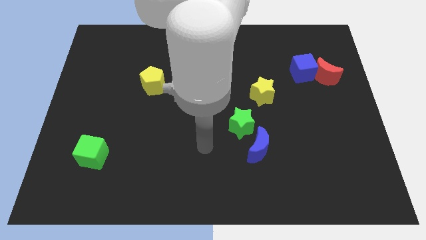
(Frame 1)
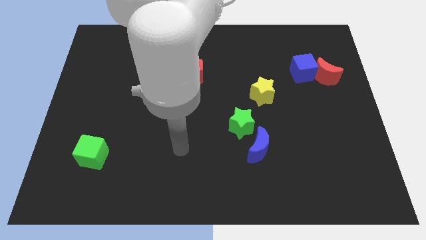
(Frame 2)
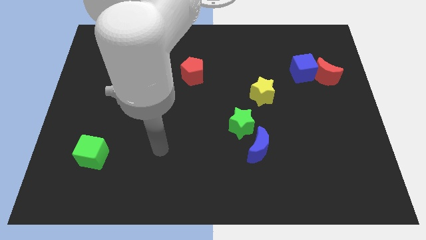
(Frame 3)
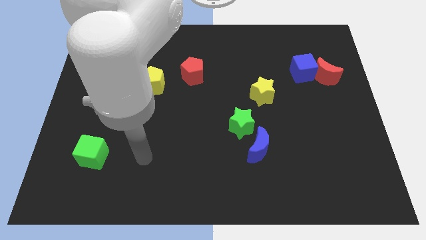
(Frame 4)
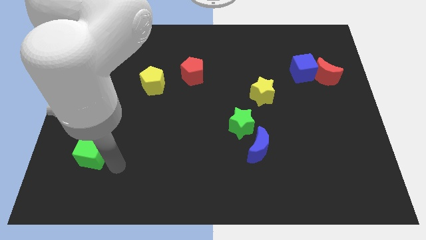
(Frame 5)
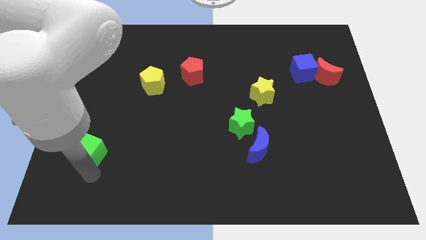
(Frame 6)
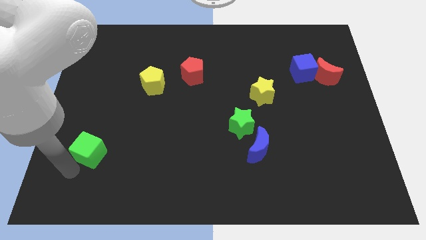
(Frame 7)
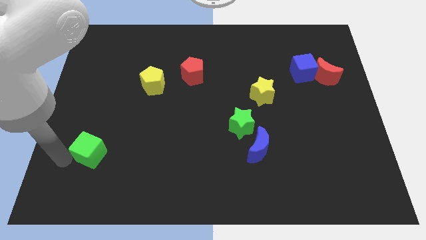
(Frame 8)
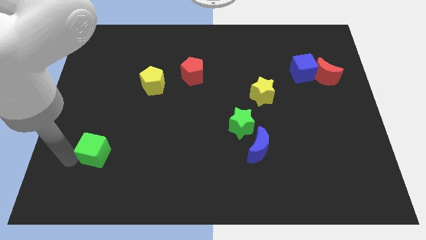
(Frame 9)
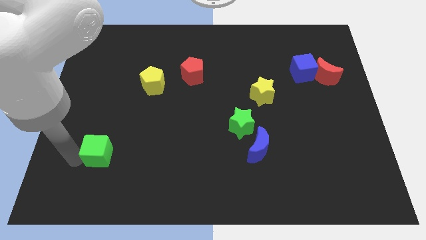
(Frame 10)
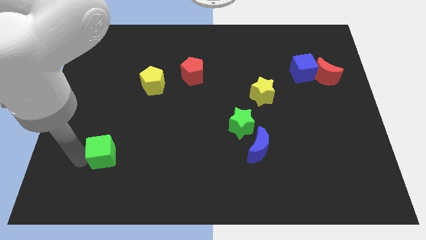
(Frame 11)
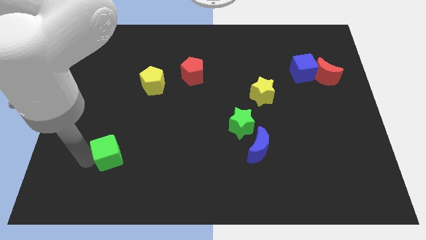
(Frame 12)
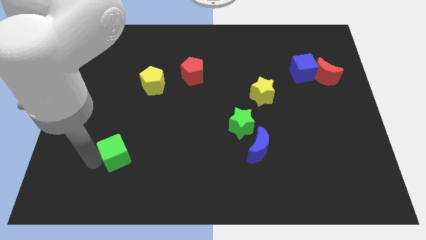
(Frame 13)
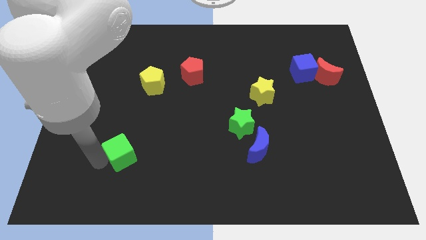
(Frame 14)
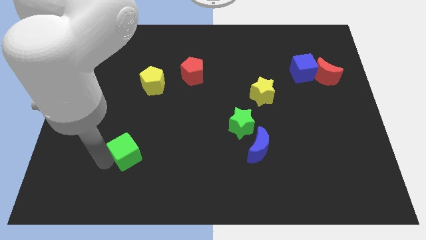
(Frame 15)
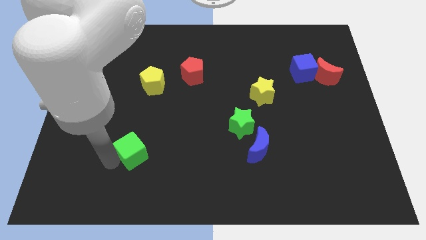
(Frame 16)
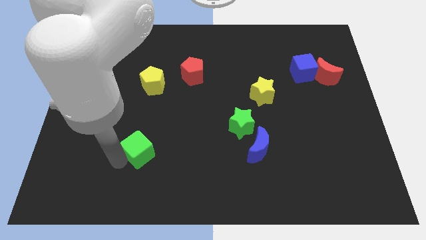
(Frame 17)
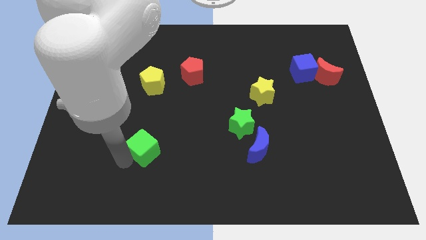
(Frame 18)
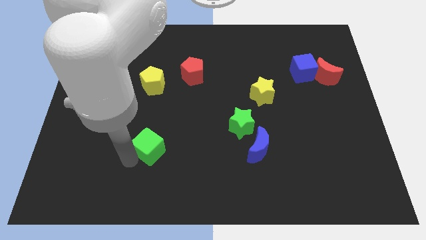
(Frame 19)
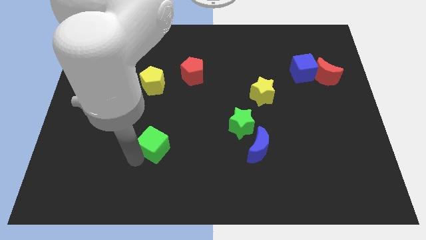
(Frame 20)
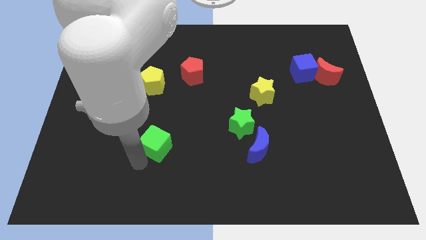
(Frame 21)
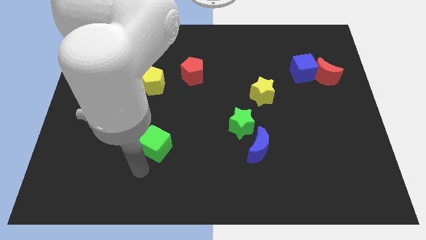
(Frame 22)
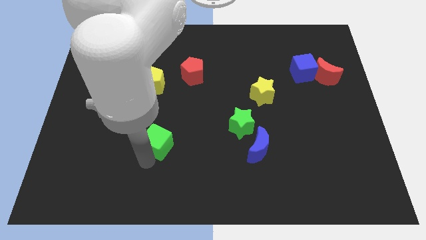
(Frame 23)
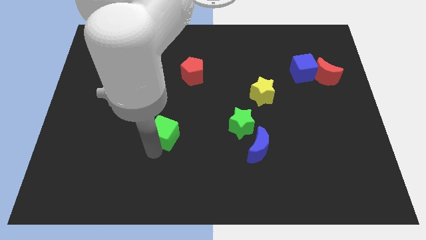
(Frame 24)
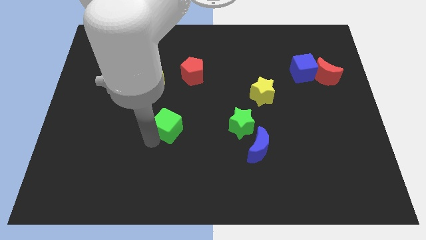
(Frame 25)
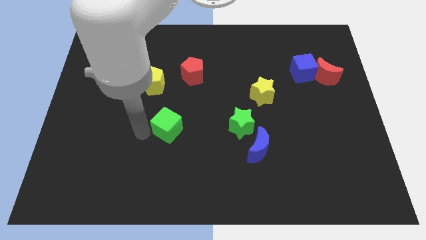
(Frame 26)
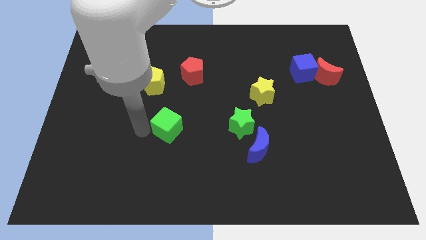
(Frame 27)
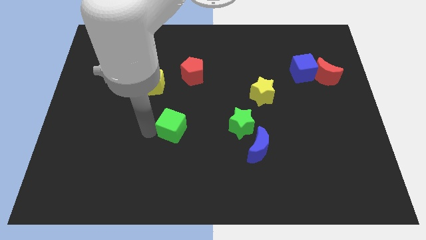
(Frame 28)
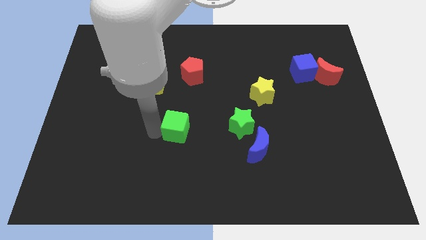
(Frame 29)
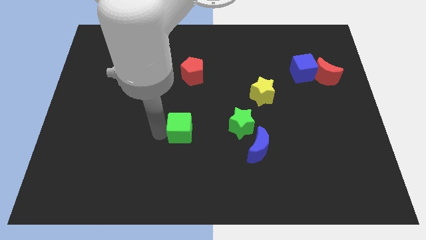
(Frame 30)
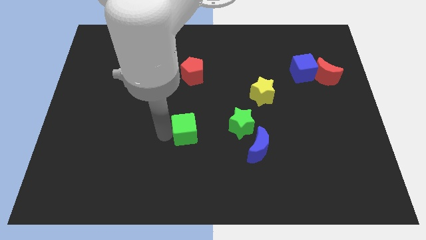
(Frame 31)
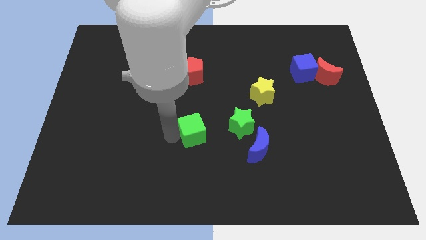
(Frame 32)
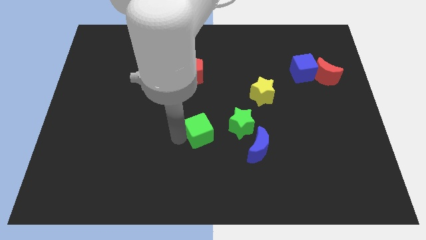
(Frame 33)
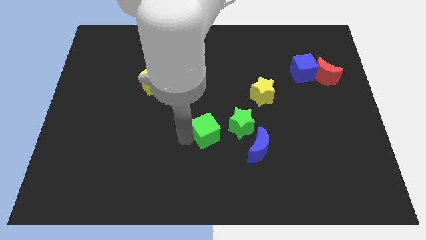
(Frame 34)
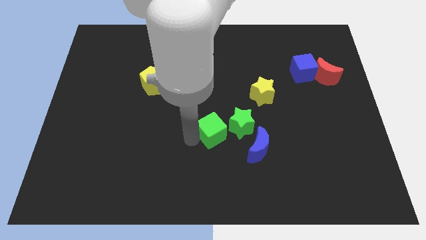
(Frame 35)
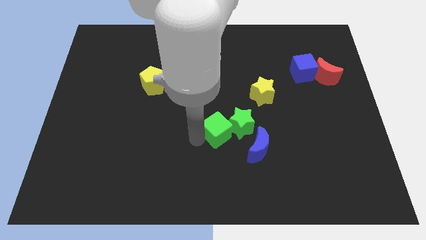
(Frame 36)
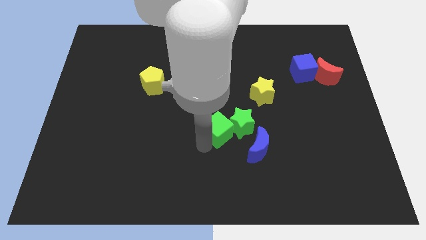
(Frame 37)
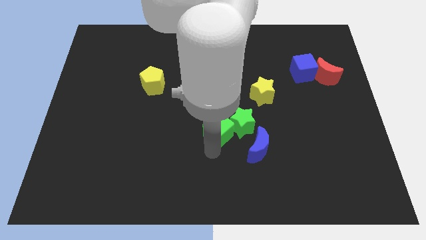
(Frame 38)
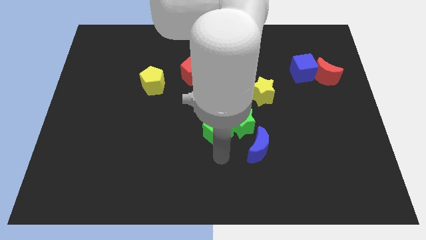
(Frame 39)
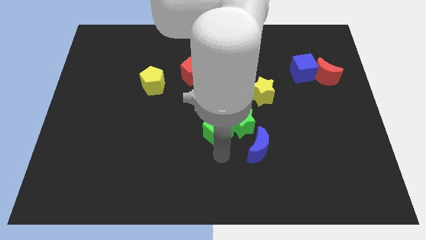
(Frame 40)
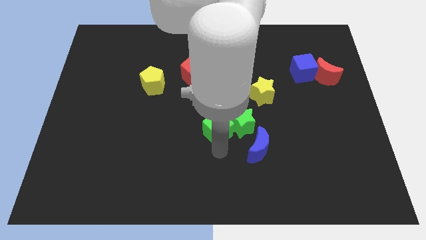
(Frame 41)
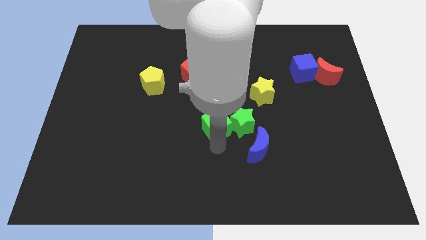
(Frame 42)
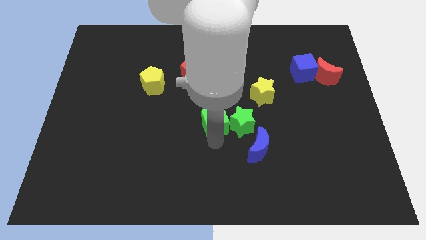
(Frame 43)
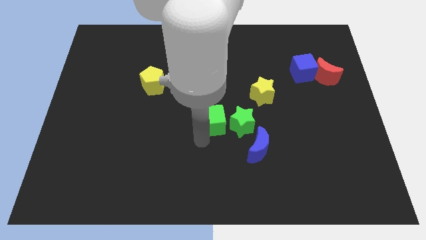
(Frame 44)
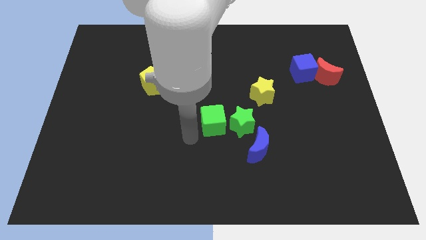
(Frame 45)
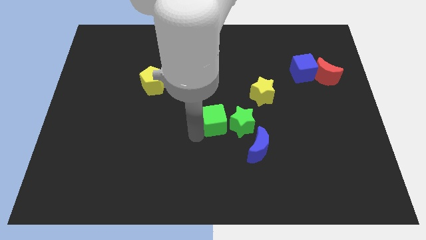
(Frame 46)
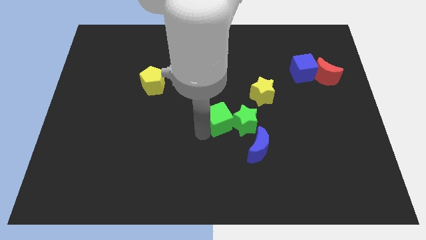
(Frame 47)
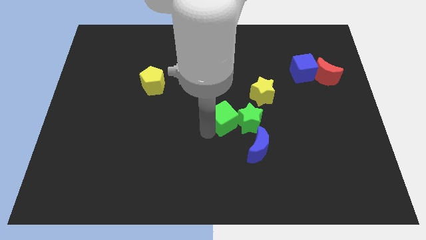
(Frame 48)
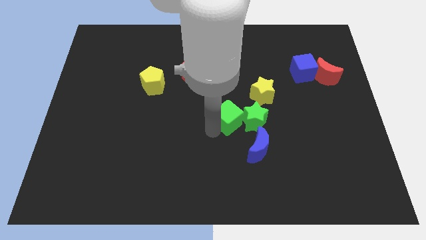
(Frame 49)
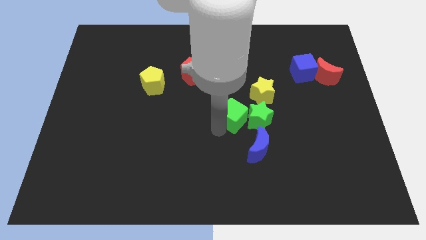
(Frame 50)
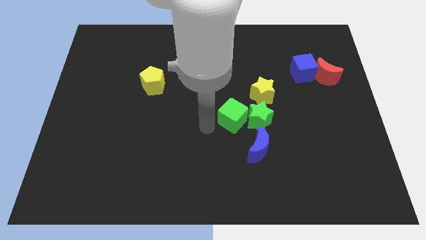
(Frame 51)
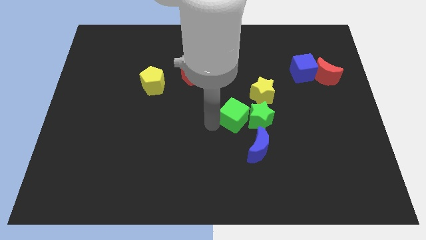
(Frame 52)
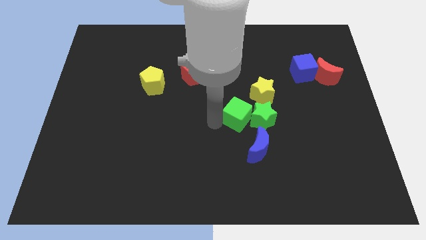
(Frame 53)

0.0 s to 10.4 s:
put the green cube to the top of the blue moon

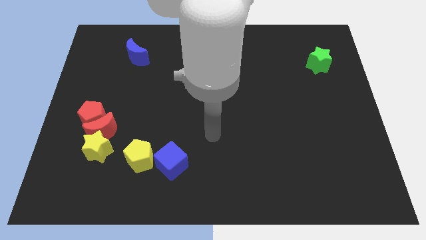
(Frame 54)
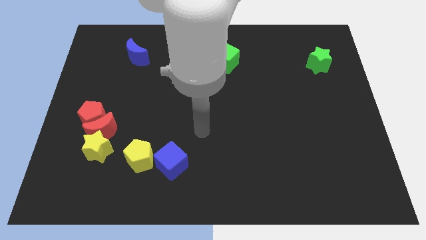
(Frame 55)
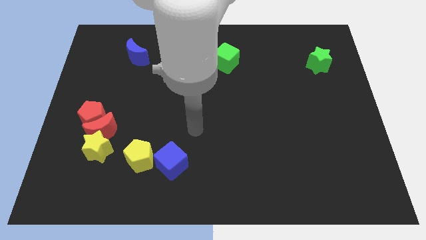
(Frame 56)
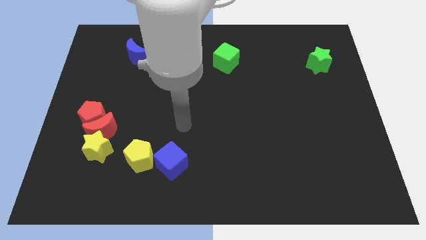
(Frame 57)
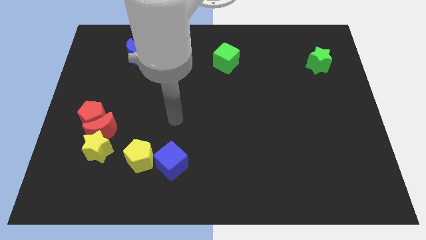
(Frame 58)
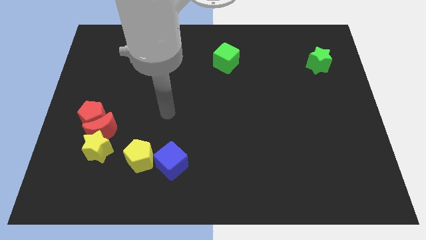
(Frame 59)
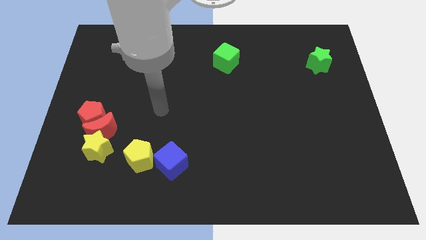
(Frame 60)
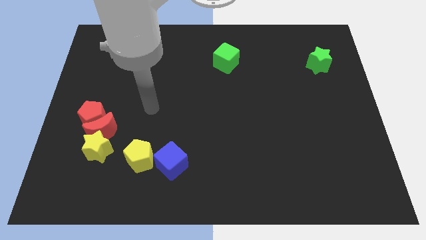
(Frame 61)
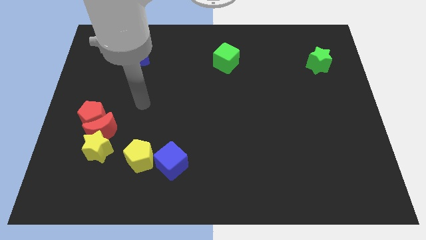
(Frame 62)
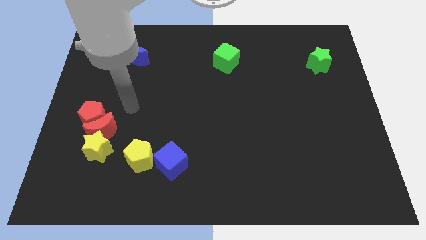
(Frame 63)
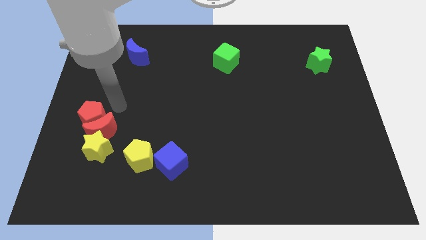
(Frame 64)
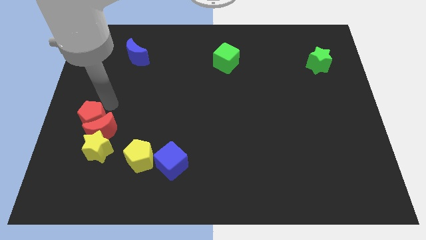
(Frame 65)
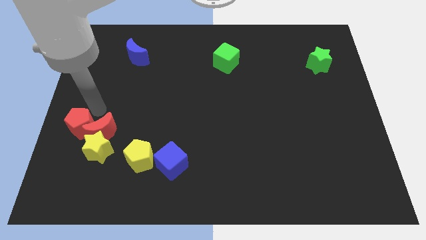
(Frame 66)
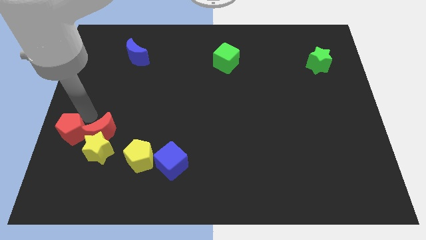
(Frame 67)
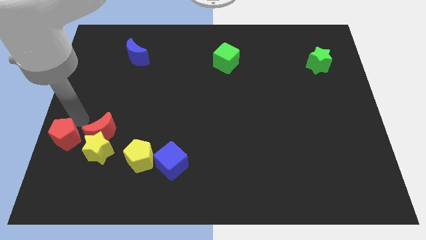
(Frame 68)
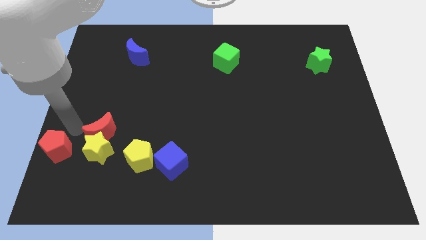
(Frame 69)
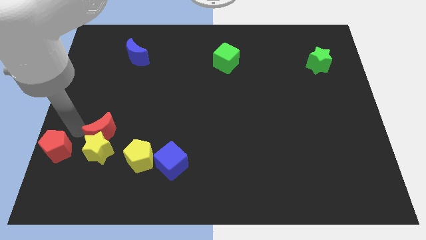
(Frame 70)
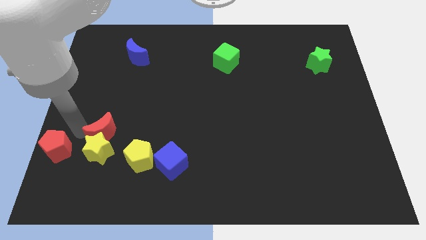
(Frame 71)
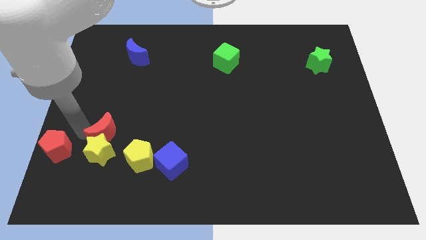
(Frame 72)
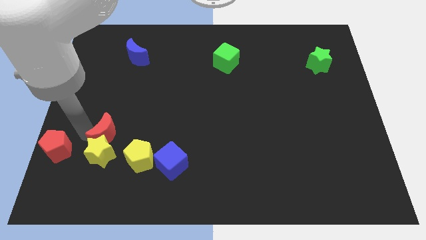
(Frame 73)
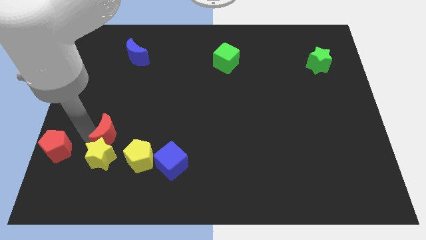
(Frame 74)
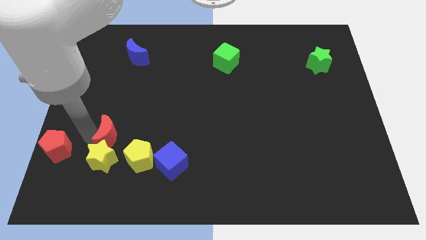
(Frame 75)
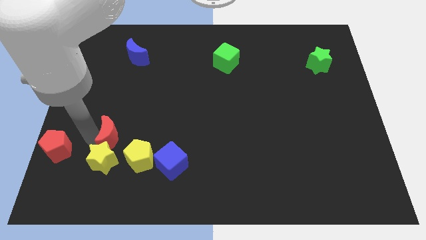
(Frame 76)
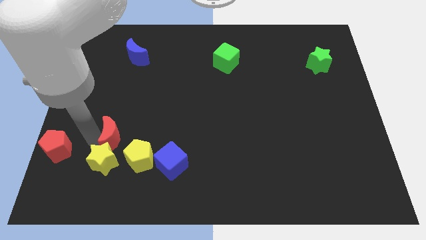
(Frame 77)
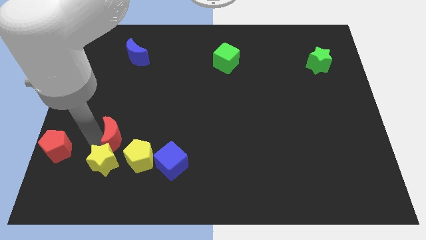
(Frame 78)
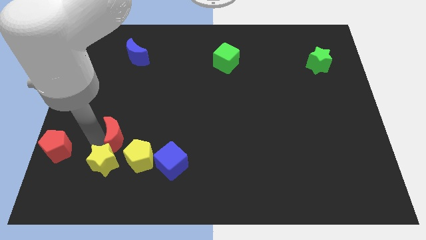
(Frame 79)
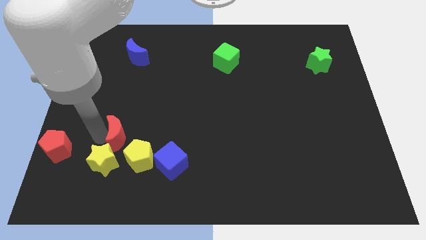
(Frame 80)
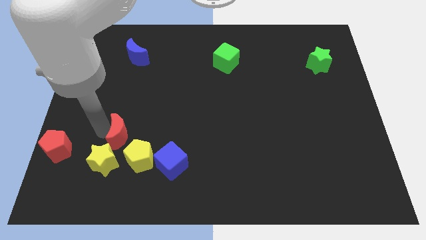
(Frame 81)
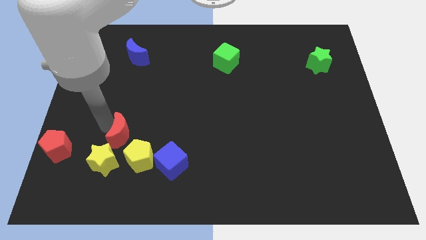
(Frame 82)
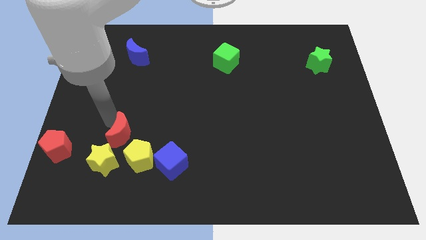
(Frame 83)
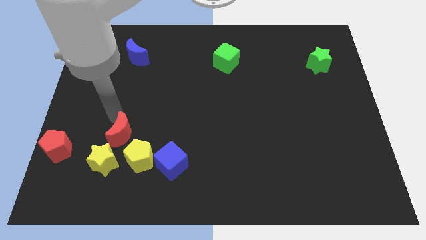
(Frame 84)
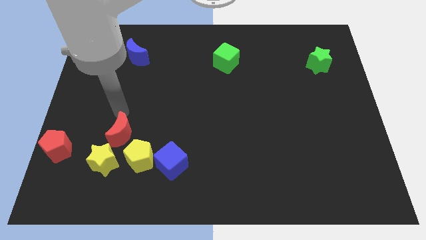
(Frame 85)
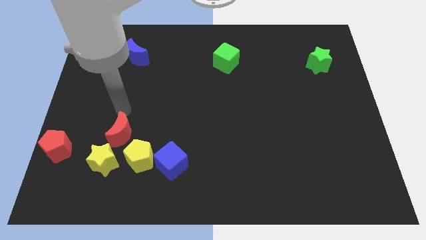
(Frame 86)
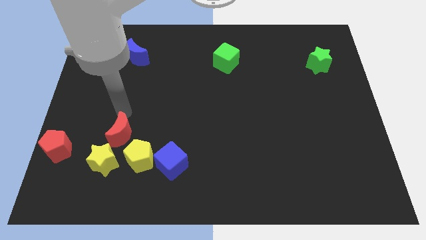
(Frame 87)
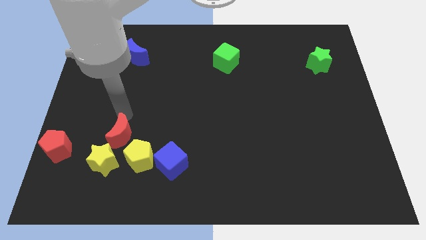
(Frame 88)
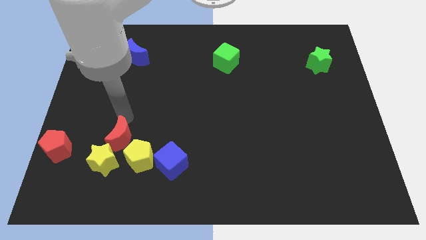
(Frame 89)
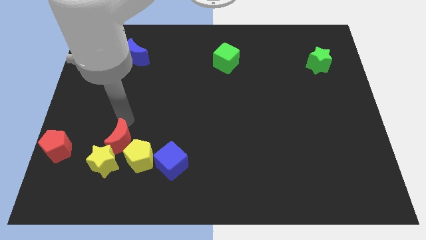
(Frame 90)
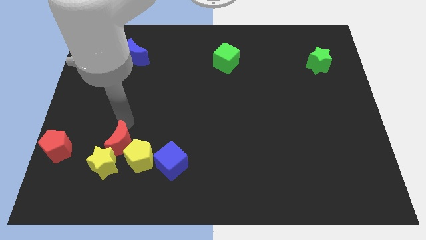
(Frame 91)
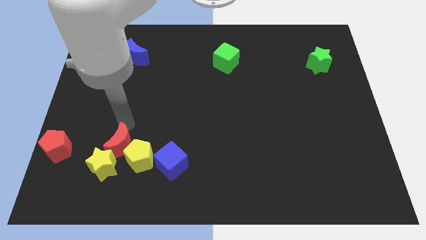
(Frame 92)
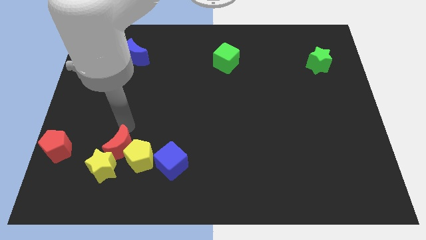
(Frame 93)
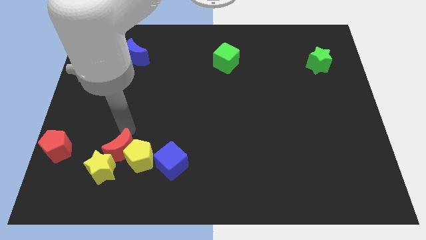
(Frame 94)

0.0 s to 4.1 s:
put the red moon to the bottom left side of the yellow pentagon
